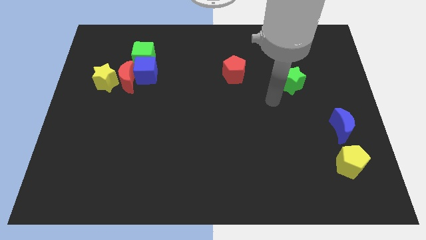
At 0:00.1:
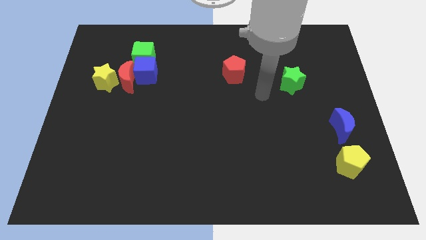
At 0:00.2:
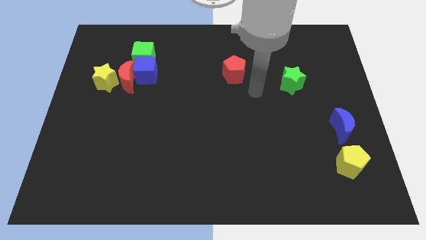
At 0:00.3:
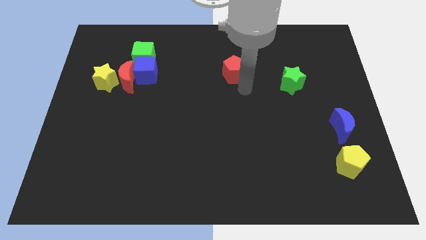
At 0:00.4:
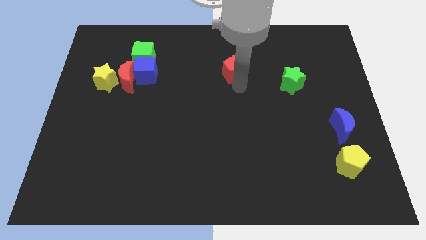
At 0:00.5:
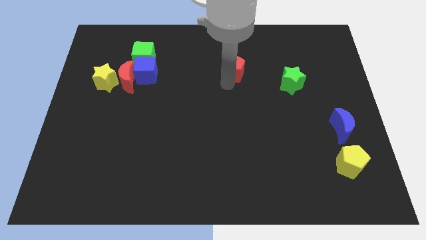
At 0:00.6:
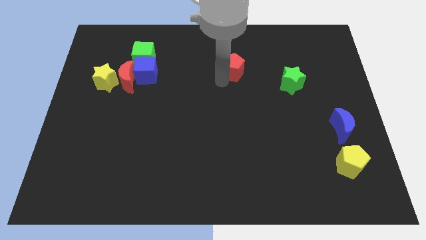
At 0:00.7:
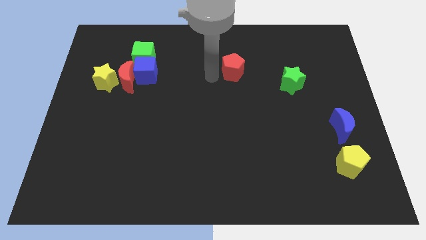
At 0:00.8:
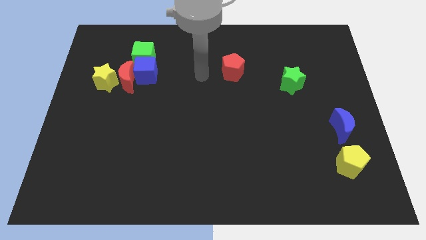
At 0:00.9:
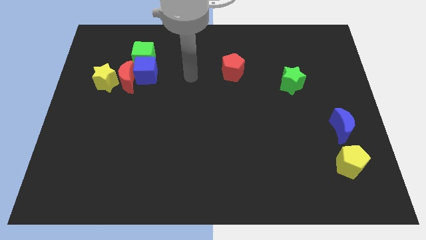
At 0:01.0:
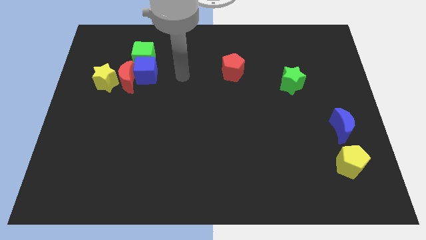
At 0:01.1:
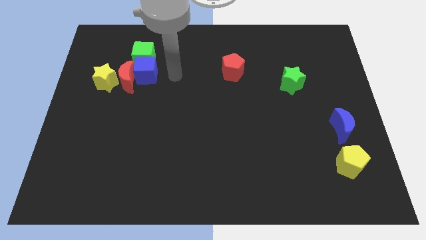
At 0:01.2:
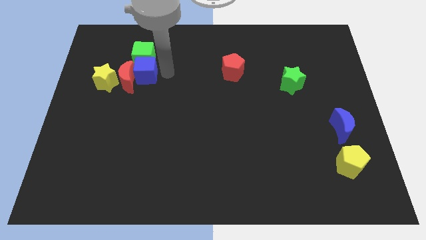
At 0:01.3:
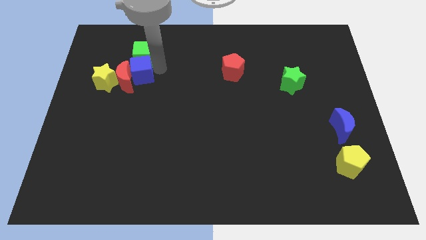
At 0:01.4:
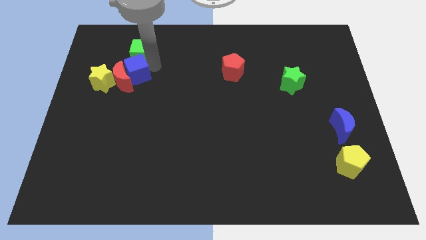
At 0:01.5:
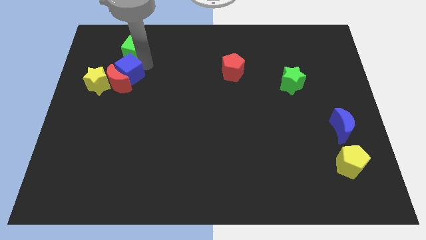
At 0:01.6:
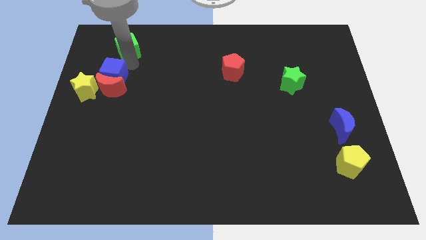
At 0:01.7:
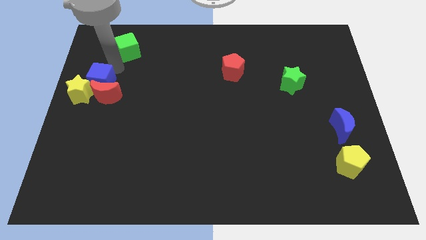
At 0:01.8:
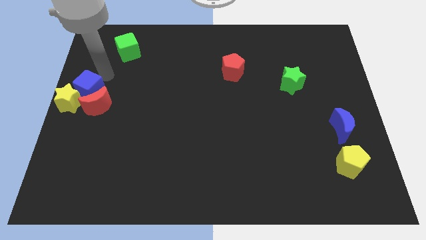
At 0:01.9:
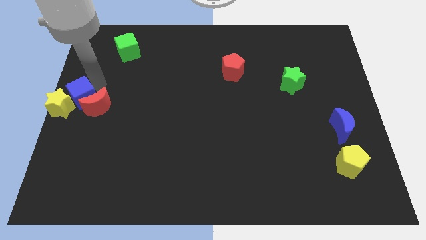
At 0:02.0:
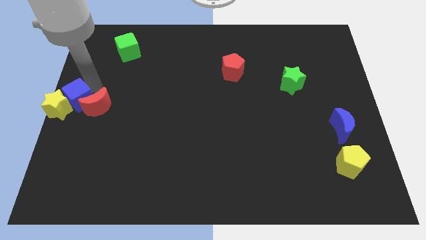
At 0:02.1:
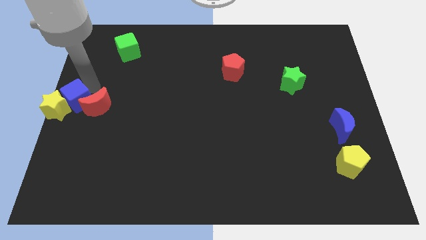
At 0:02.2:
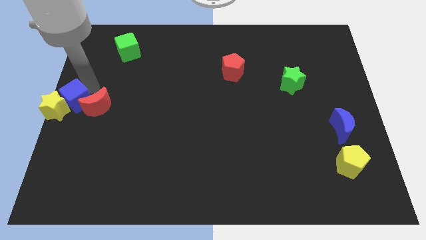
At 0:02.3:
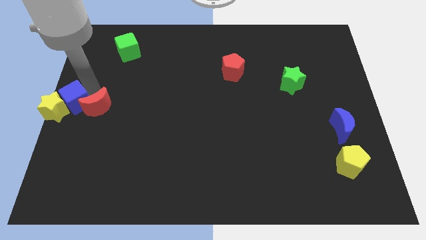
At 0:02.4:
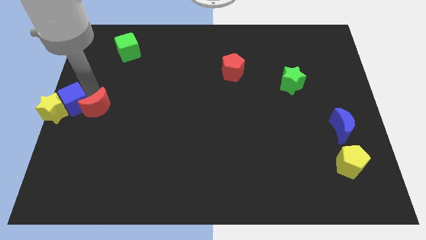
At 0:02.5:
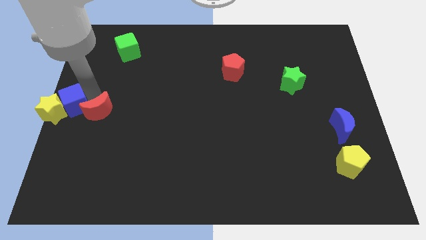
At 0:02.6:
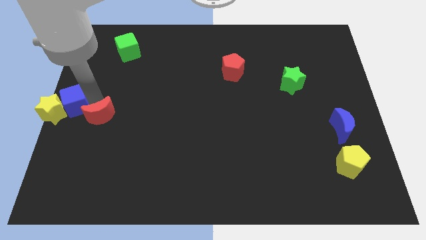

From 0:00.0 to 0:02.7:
separate the red moon from the clump

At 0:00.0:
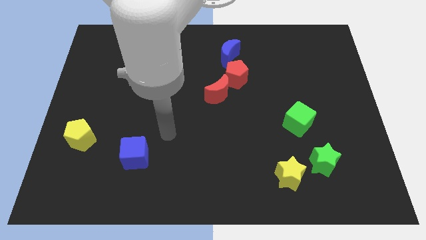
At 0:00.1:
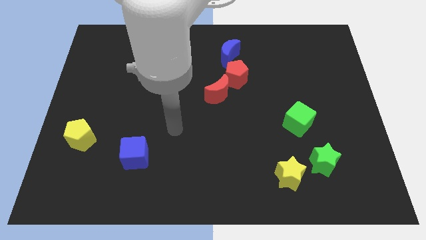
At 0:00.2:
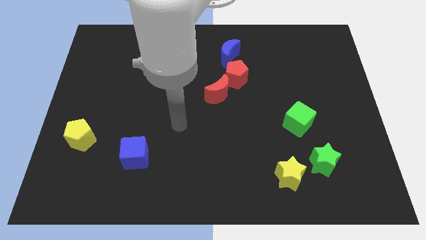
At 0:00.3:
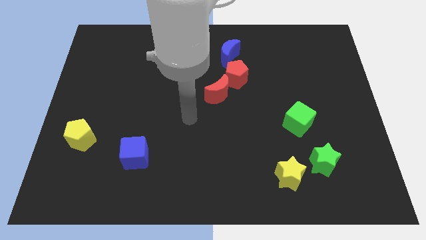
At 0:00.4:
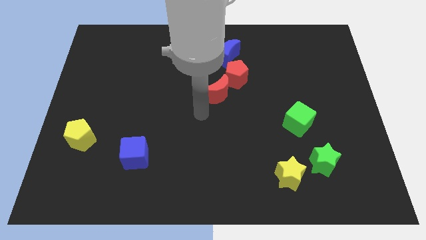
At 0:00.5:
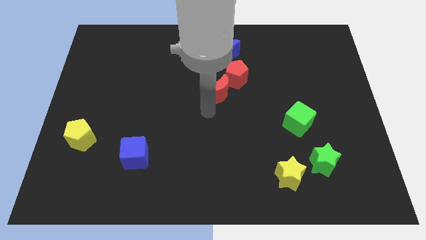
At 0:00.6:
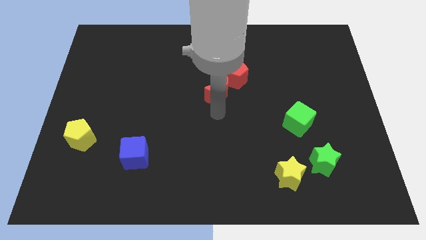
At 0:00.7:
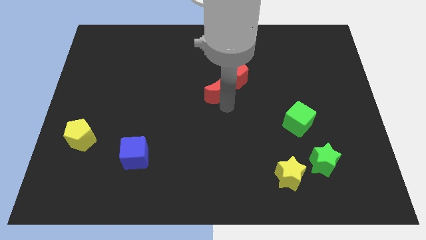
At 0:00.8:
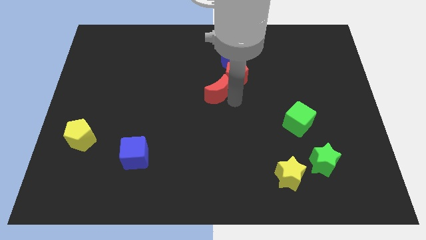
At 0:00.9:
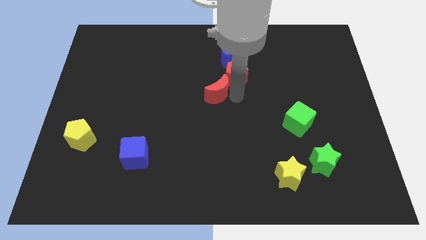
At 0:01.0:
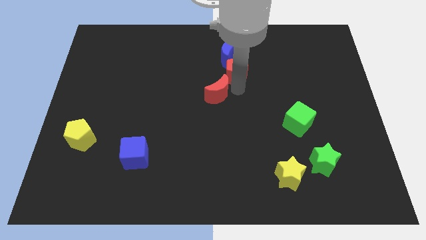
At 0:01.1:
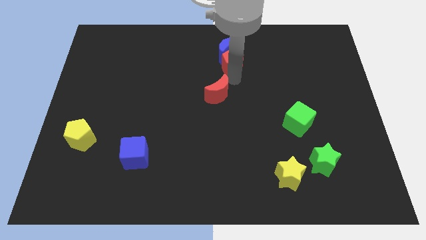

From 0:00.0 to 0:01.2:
pull the red moon apart from the red pentagon

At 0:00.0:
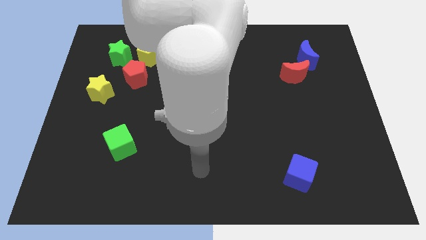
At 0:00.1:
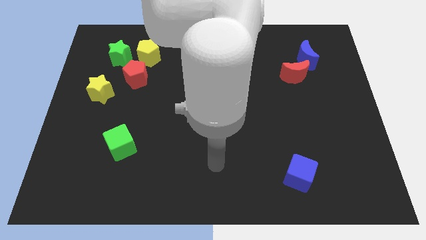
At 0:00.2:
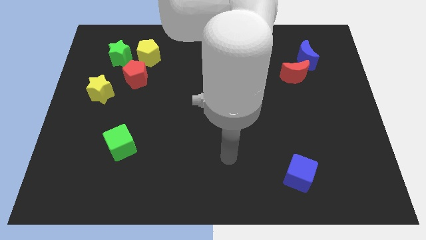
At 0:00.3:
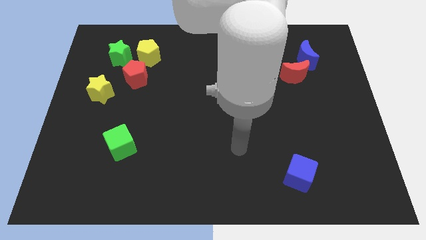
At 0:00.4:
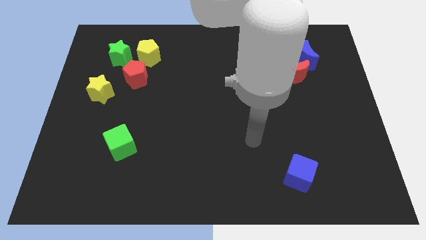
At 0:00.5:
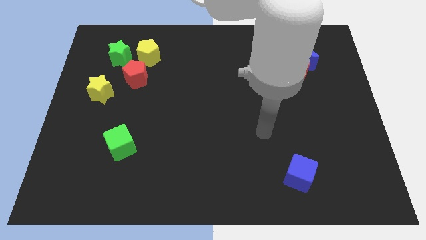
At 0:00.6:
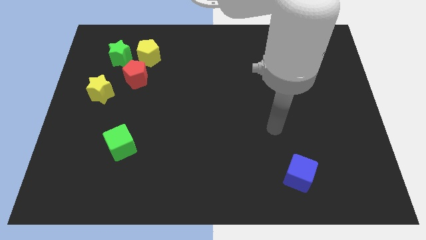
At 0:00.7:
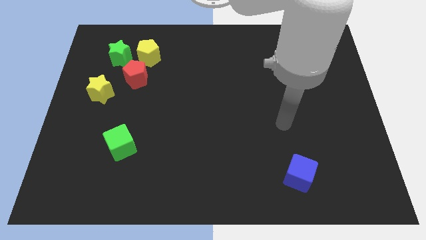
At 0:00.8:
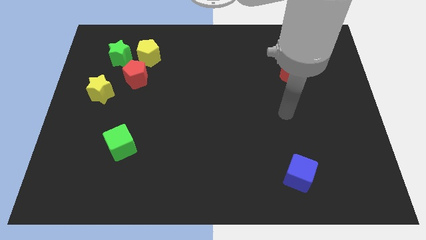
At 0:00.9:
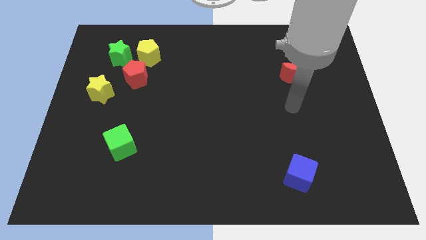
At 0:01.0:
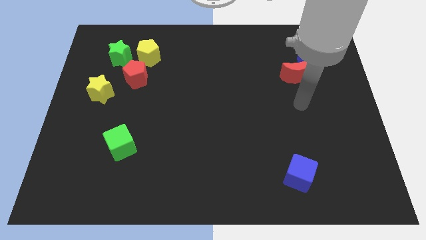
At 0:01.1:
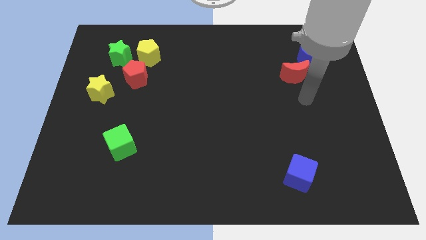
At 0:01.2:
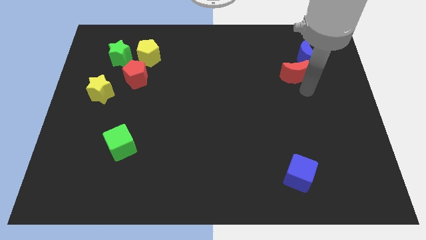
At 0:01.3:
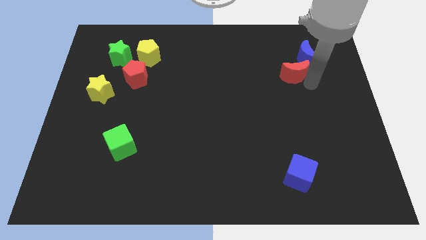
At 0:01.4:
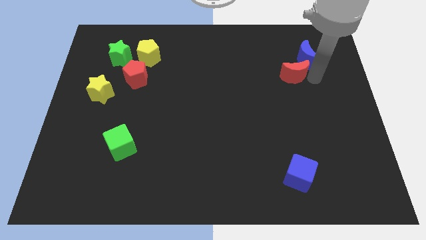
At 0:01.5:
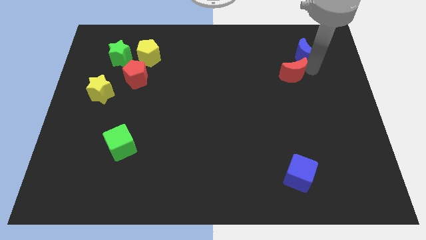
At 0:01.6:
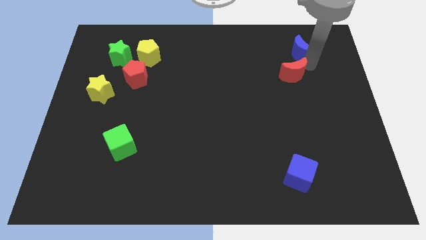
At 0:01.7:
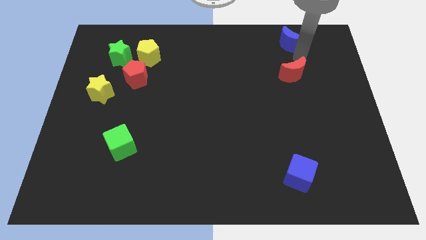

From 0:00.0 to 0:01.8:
separate the red moon from the blue moon

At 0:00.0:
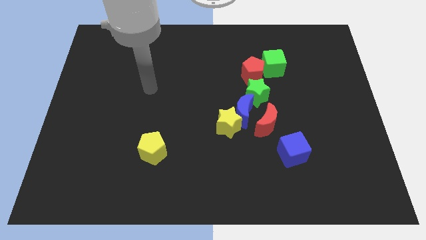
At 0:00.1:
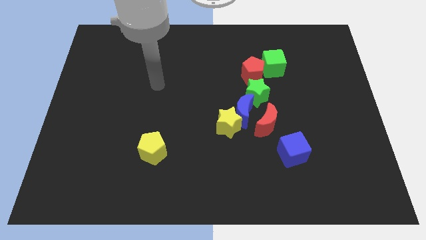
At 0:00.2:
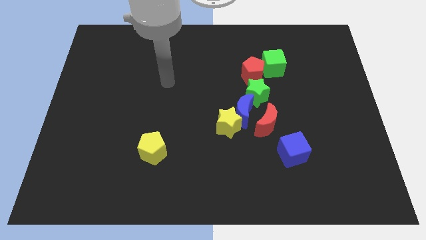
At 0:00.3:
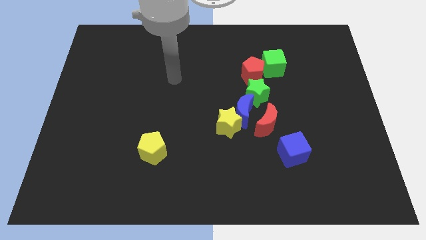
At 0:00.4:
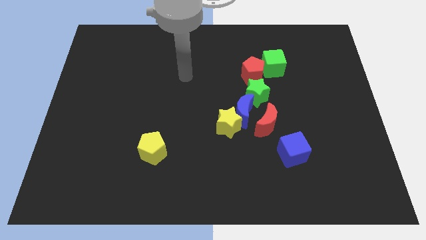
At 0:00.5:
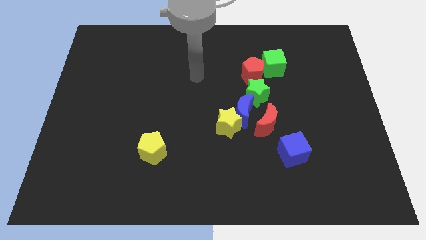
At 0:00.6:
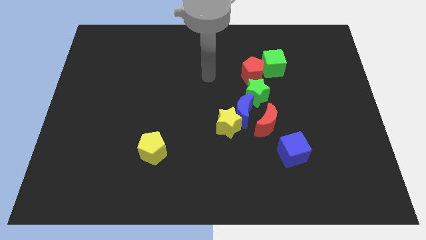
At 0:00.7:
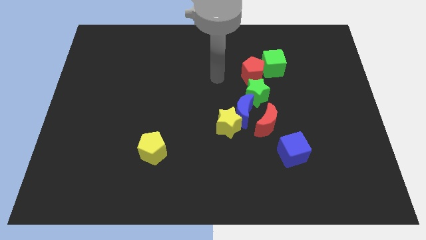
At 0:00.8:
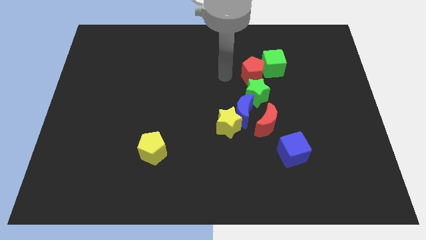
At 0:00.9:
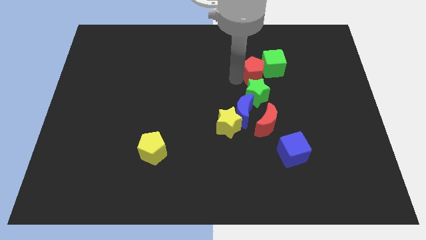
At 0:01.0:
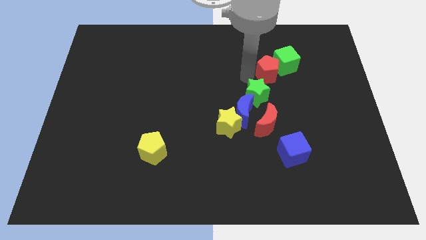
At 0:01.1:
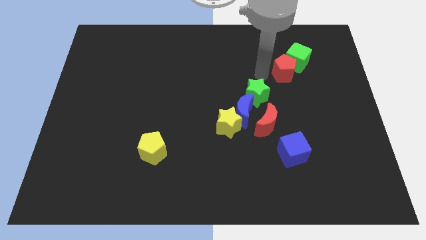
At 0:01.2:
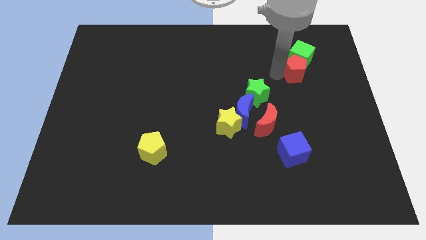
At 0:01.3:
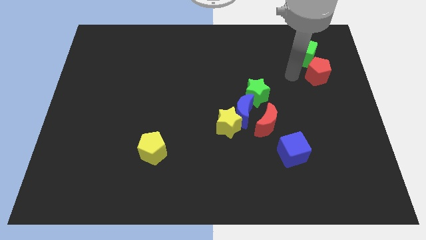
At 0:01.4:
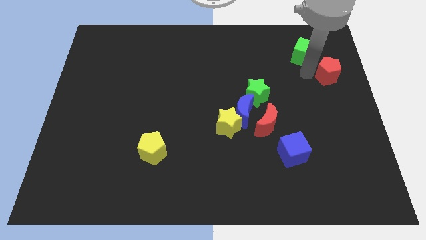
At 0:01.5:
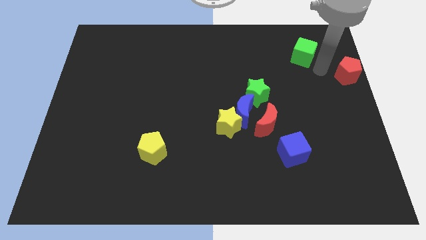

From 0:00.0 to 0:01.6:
separate the green cube from the red pentagon

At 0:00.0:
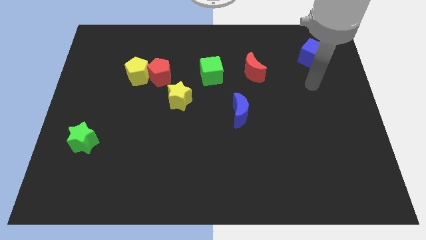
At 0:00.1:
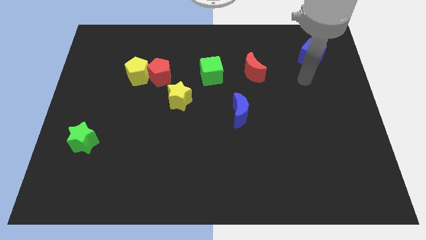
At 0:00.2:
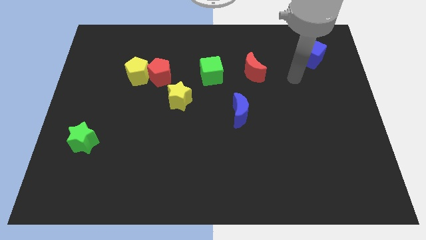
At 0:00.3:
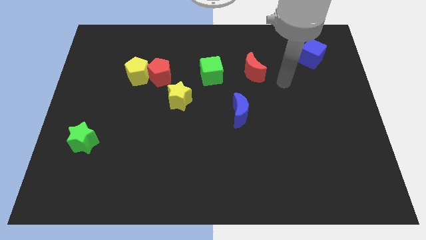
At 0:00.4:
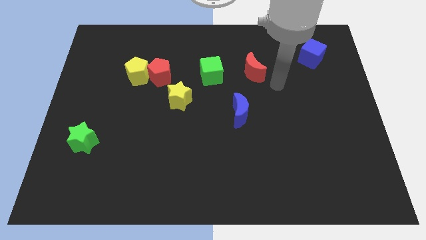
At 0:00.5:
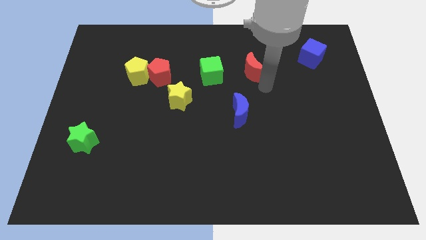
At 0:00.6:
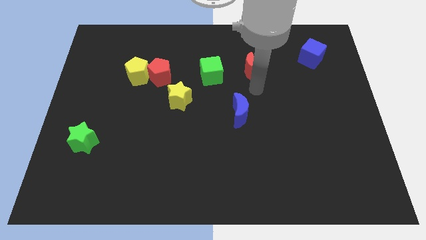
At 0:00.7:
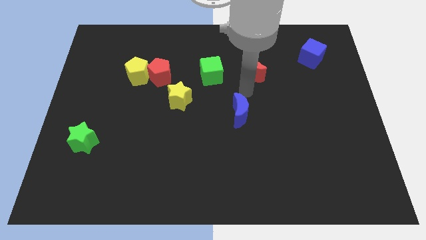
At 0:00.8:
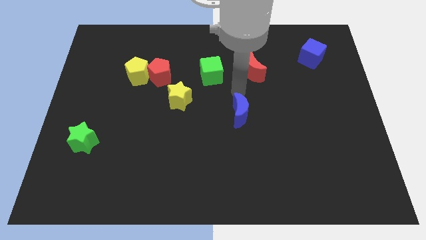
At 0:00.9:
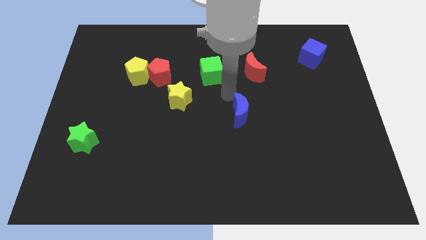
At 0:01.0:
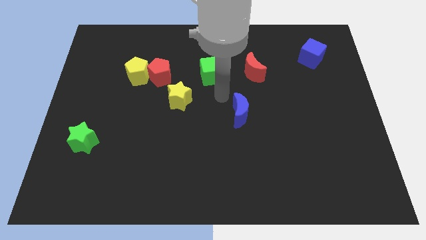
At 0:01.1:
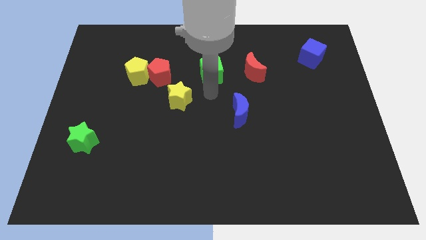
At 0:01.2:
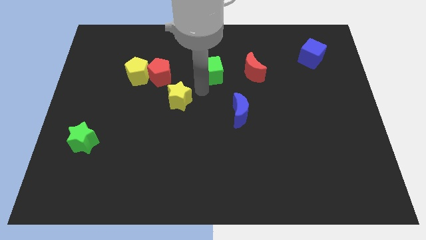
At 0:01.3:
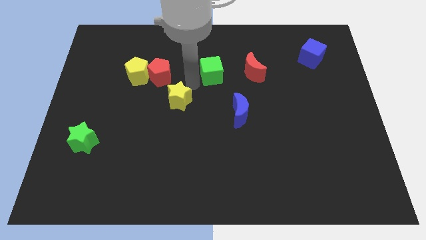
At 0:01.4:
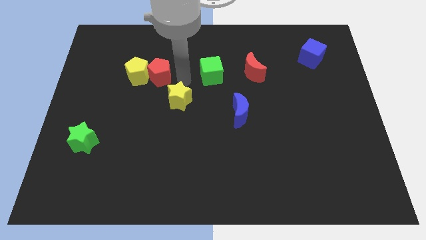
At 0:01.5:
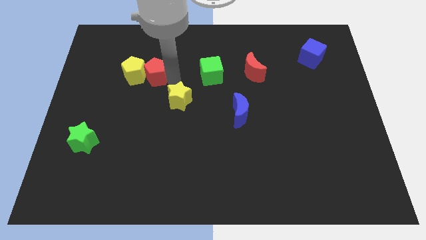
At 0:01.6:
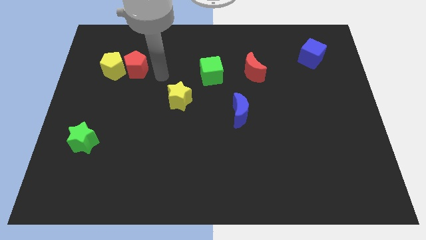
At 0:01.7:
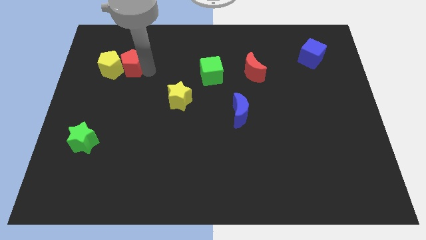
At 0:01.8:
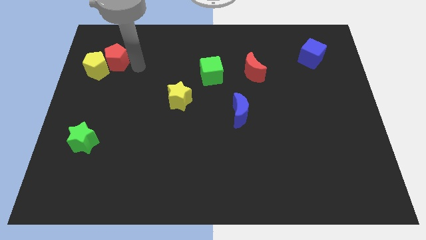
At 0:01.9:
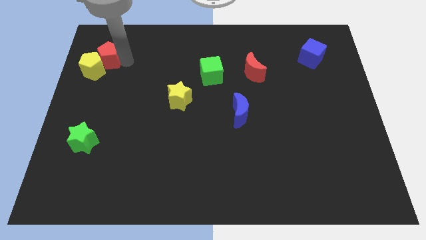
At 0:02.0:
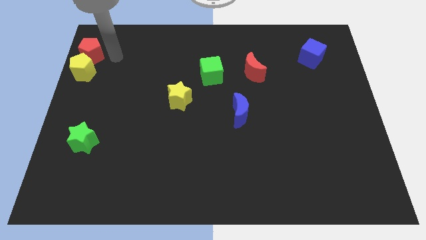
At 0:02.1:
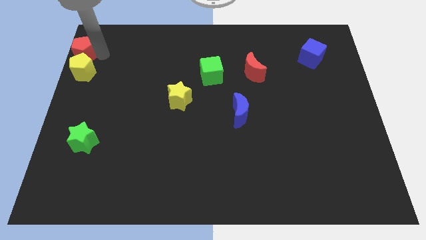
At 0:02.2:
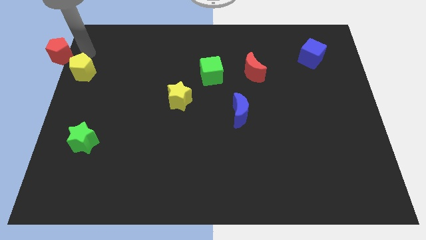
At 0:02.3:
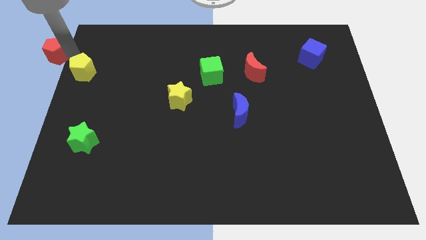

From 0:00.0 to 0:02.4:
pull the yellow pentagon apart from the red pentagon
